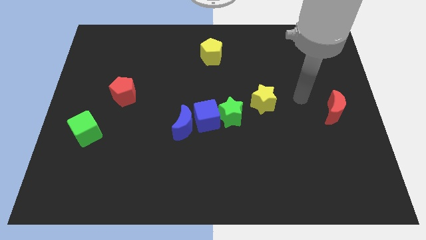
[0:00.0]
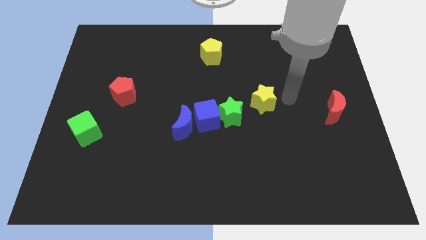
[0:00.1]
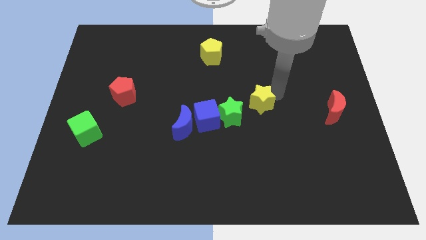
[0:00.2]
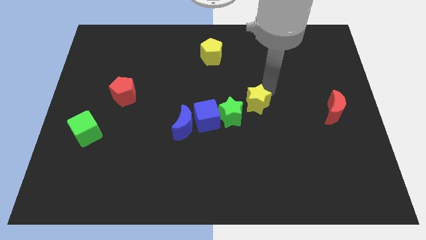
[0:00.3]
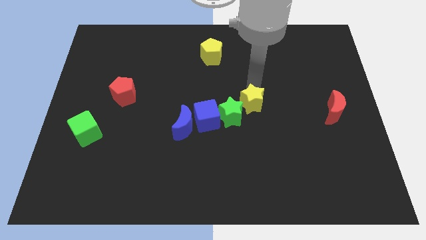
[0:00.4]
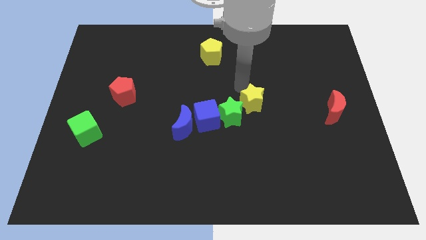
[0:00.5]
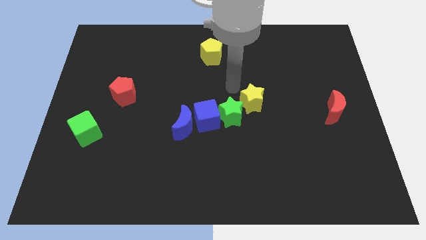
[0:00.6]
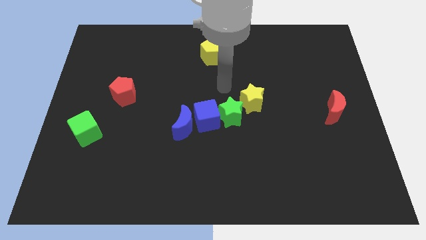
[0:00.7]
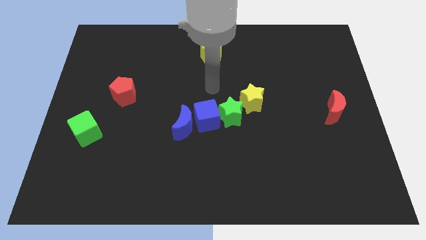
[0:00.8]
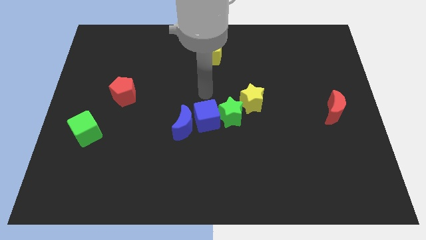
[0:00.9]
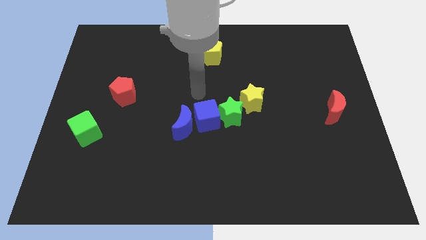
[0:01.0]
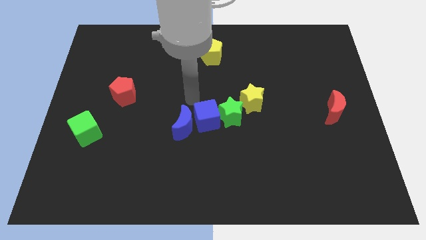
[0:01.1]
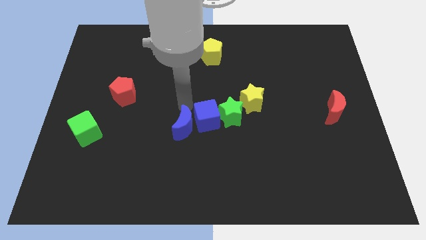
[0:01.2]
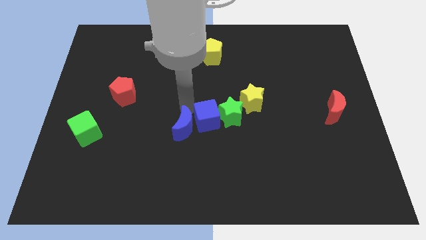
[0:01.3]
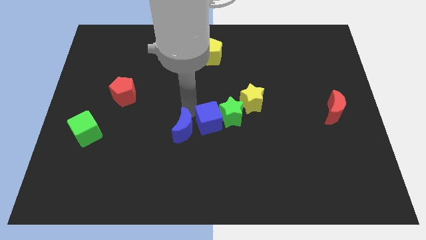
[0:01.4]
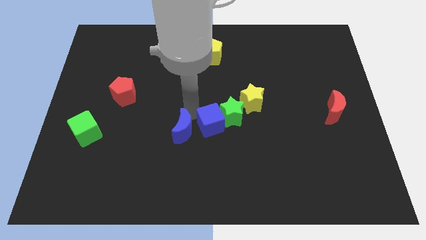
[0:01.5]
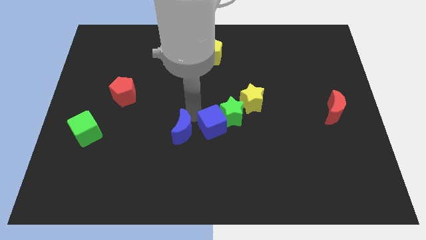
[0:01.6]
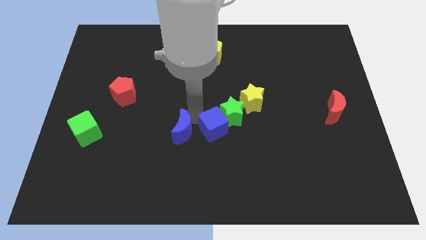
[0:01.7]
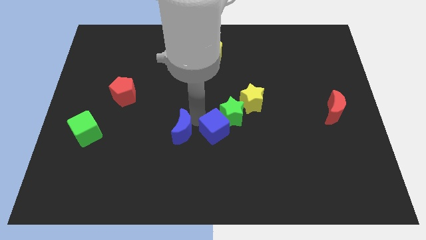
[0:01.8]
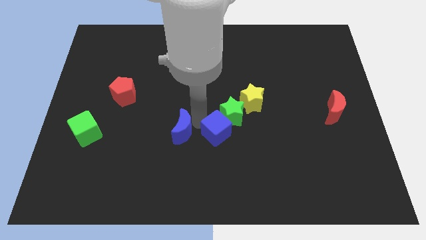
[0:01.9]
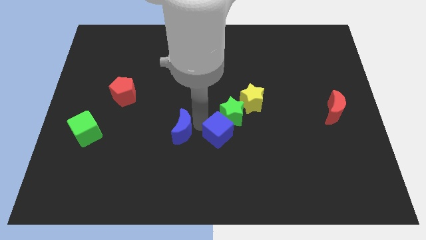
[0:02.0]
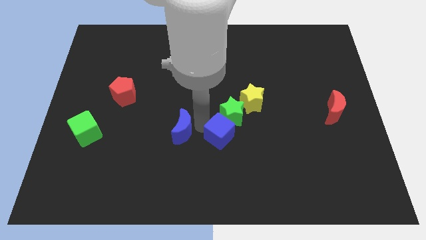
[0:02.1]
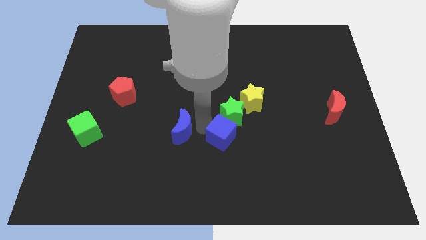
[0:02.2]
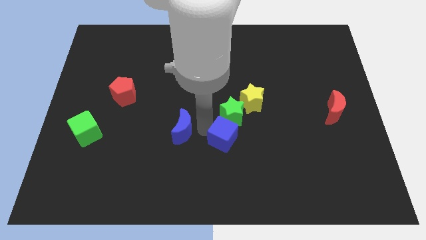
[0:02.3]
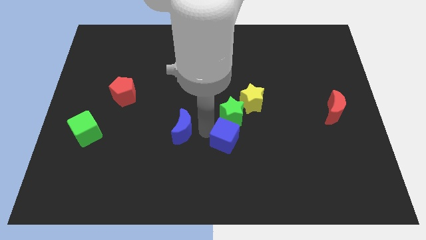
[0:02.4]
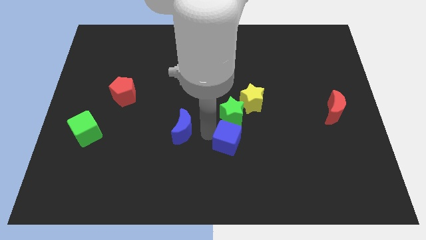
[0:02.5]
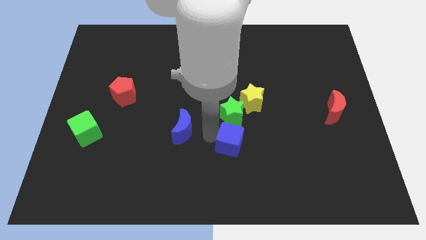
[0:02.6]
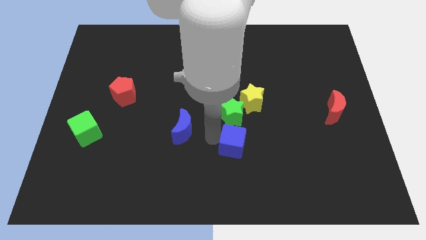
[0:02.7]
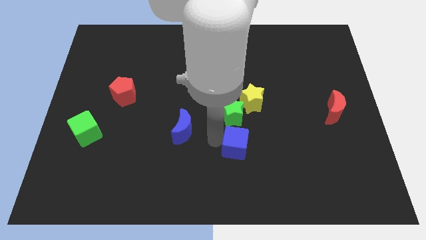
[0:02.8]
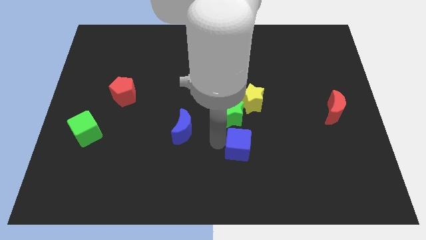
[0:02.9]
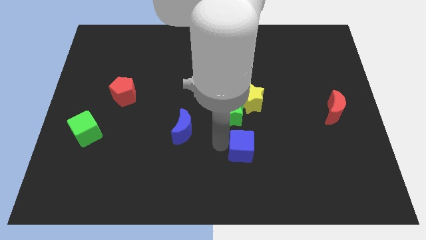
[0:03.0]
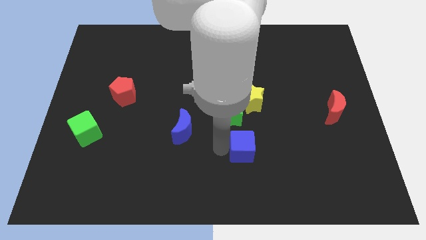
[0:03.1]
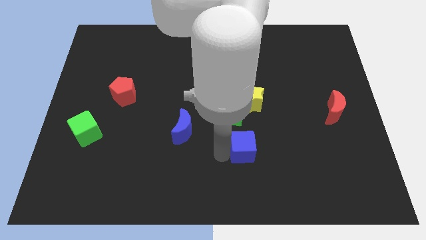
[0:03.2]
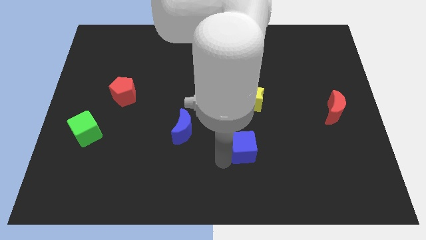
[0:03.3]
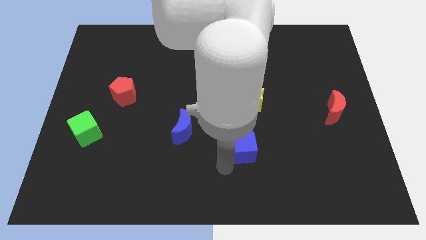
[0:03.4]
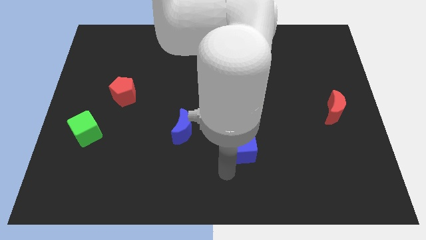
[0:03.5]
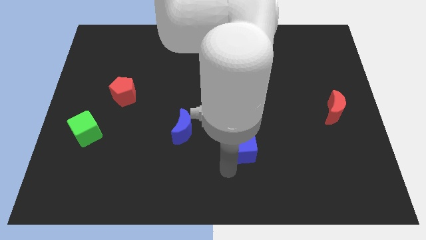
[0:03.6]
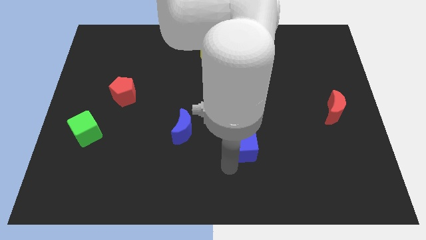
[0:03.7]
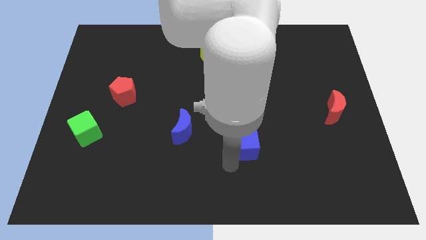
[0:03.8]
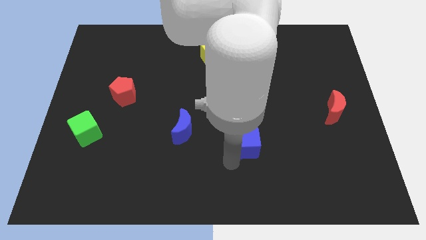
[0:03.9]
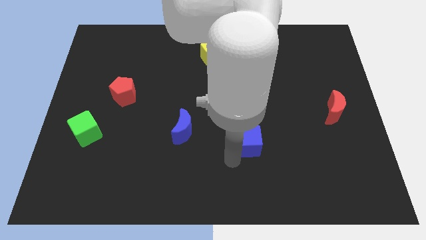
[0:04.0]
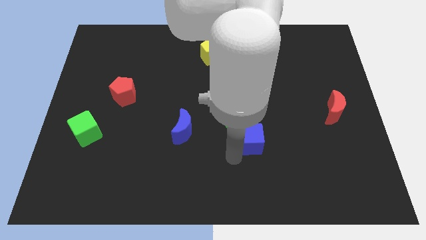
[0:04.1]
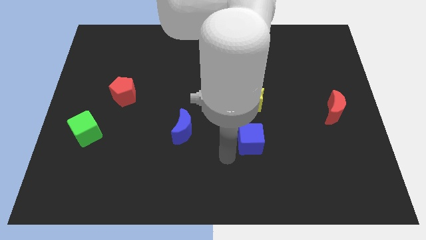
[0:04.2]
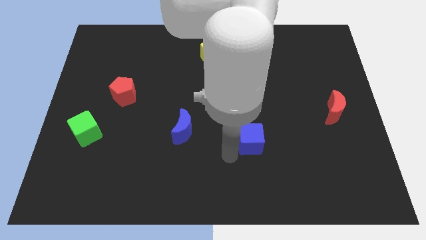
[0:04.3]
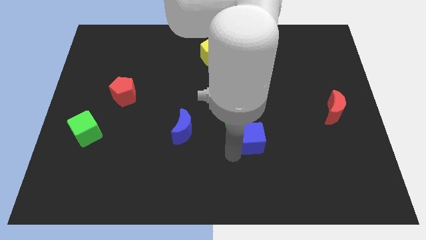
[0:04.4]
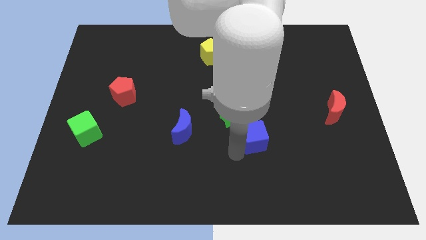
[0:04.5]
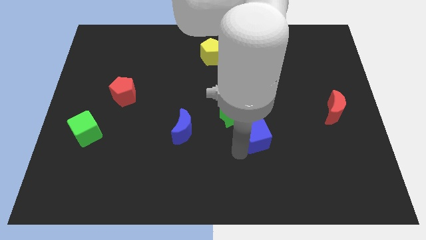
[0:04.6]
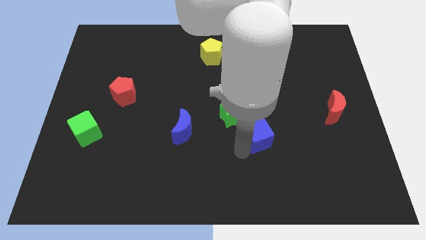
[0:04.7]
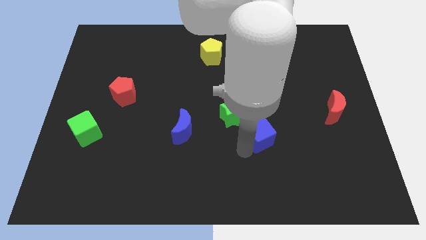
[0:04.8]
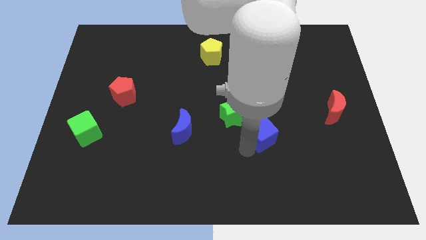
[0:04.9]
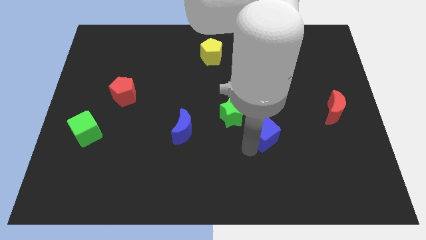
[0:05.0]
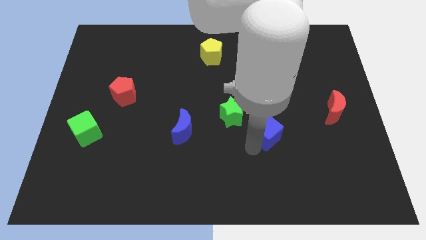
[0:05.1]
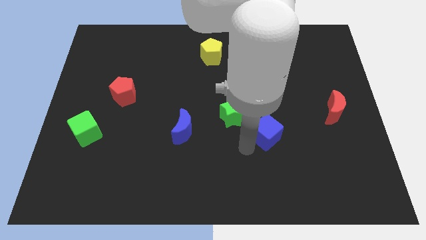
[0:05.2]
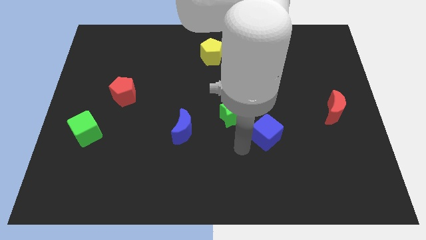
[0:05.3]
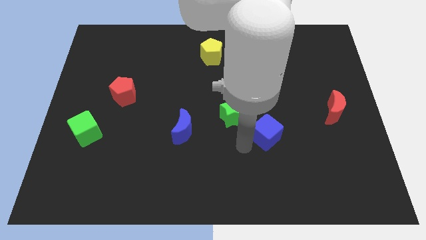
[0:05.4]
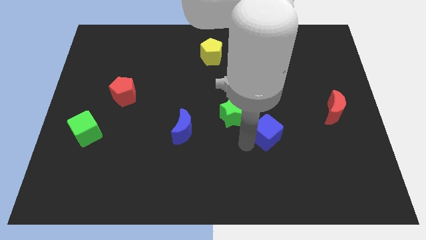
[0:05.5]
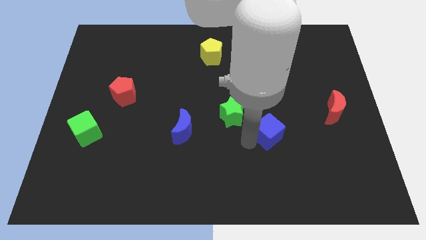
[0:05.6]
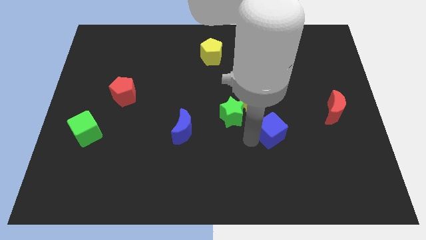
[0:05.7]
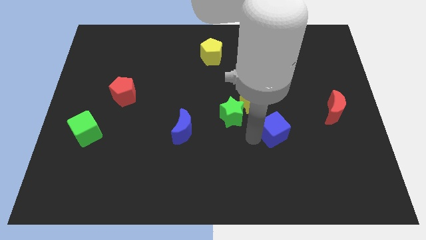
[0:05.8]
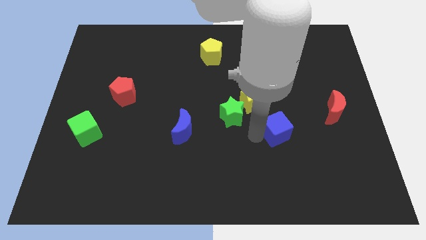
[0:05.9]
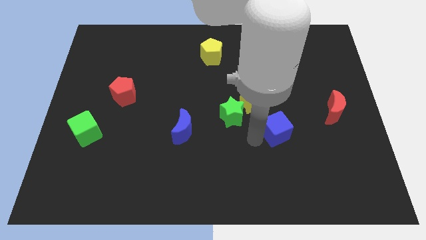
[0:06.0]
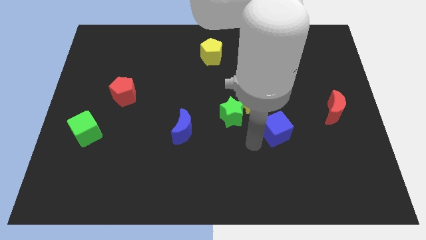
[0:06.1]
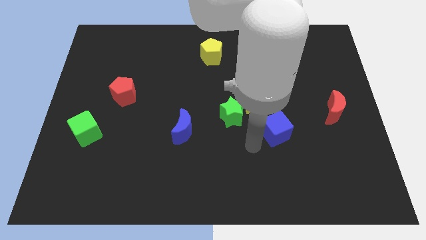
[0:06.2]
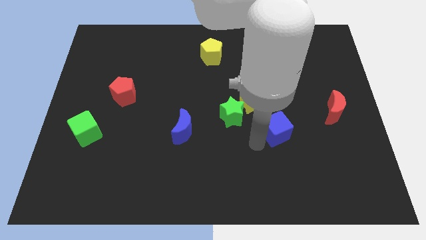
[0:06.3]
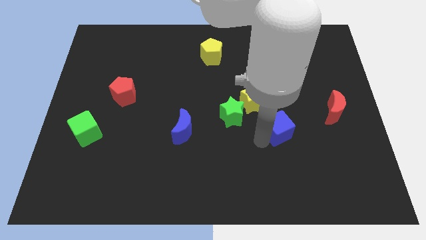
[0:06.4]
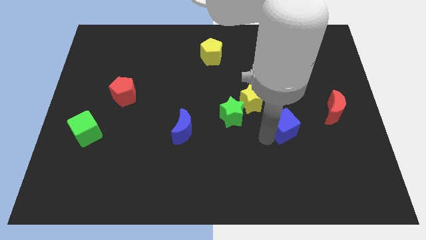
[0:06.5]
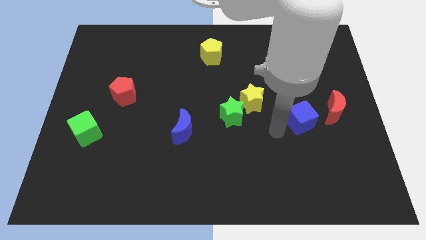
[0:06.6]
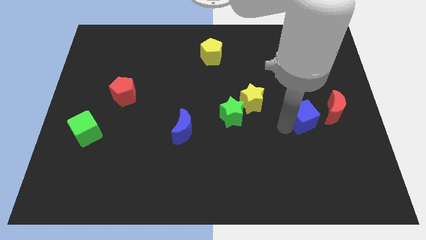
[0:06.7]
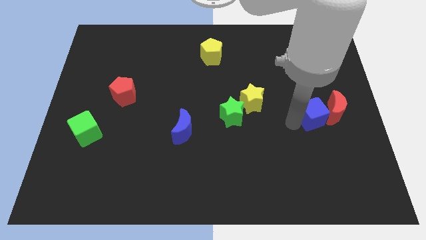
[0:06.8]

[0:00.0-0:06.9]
push the blue cube to the red moon
